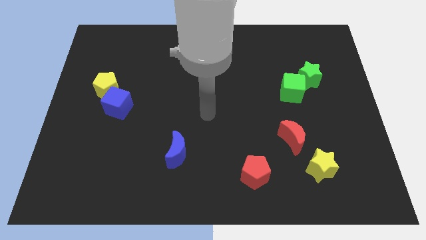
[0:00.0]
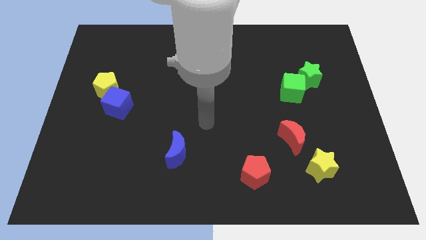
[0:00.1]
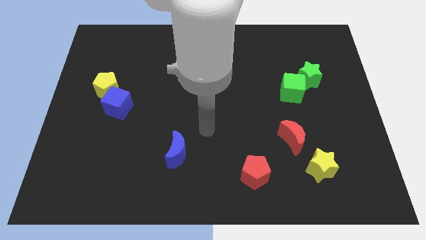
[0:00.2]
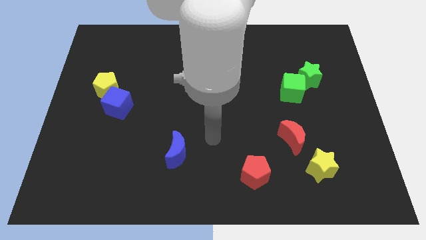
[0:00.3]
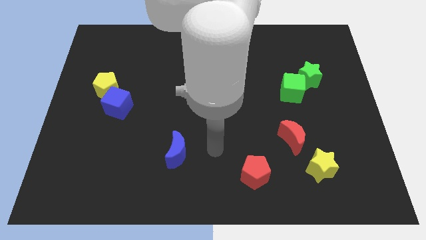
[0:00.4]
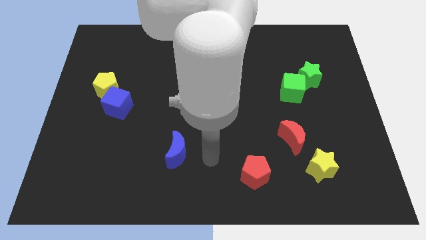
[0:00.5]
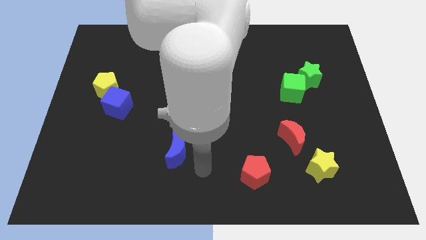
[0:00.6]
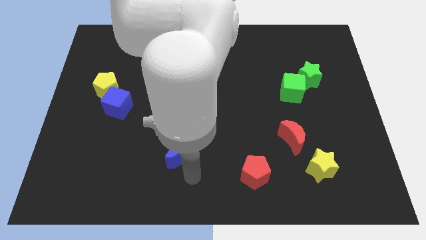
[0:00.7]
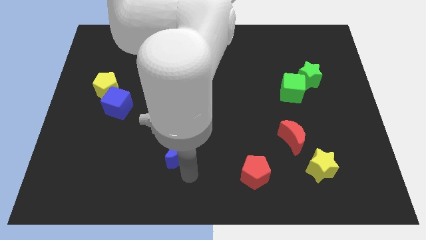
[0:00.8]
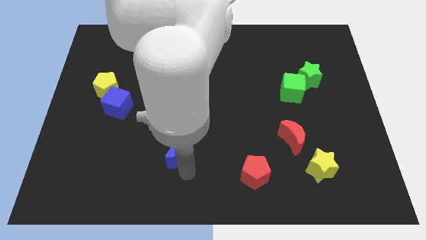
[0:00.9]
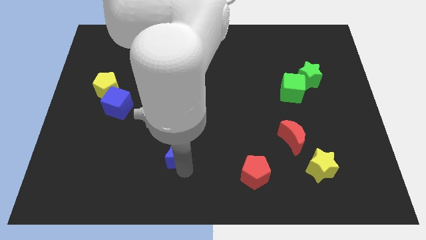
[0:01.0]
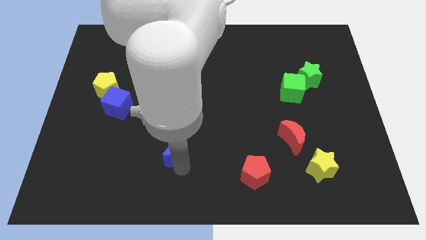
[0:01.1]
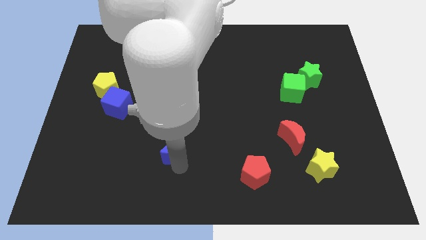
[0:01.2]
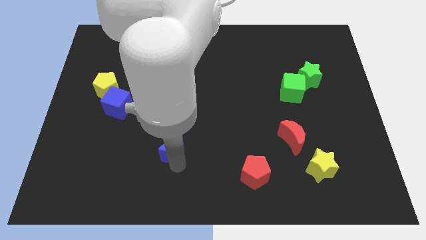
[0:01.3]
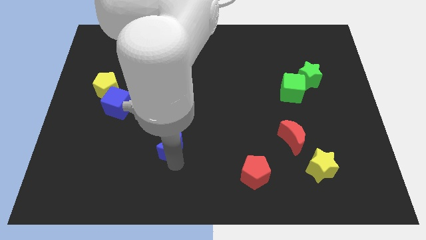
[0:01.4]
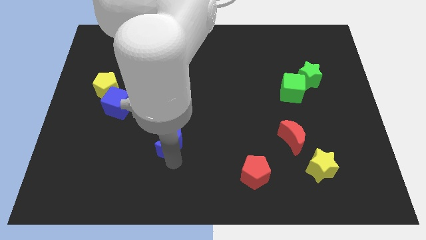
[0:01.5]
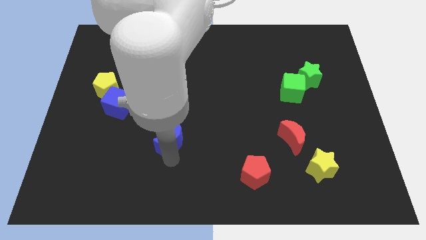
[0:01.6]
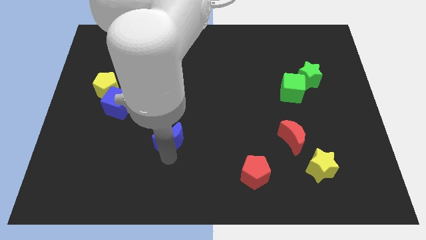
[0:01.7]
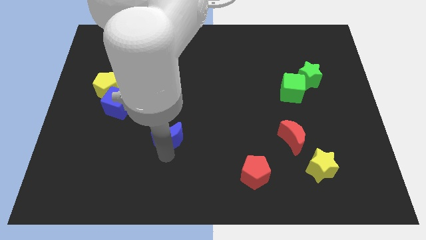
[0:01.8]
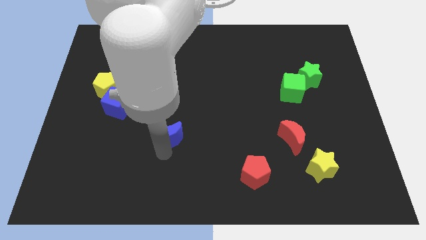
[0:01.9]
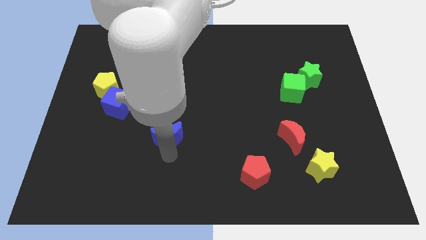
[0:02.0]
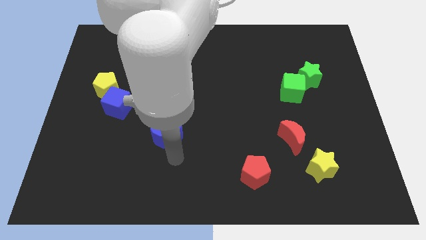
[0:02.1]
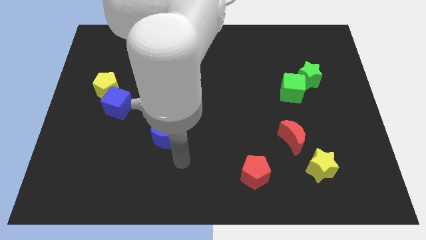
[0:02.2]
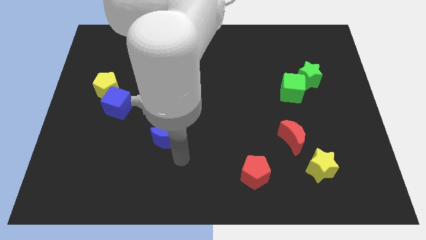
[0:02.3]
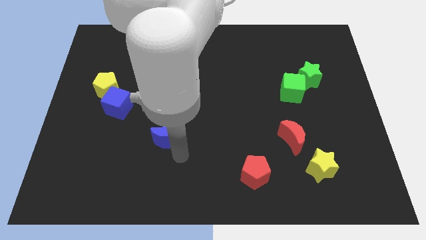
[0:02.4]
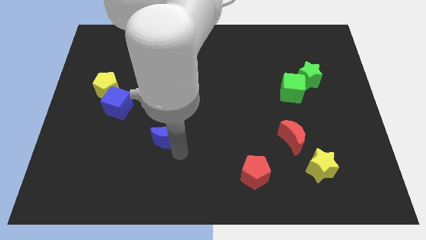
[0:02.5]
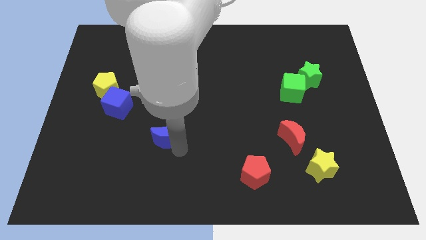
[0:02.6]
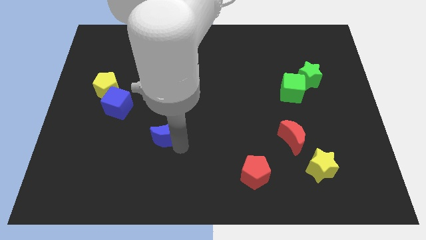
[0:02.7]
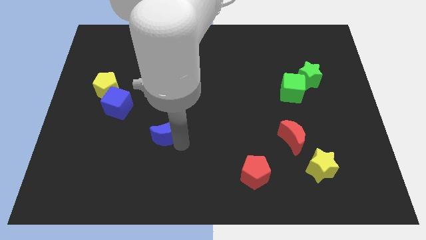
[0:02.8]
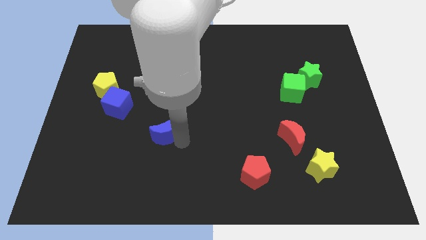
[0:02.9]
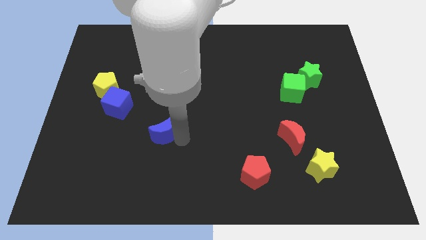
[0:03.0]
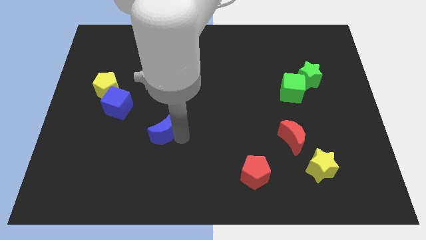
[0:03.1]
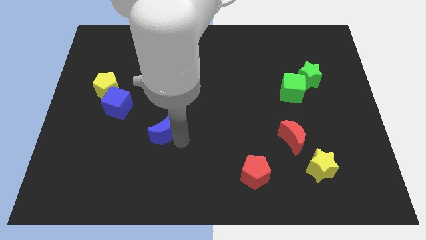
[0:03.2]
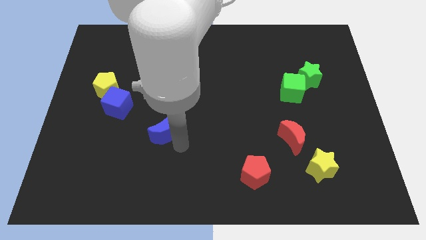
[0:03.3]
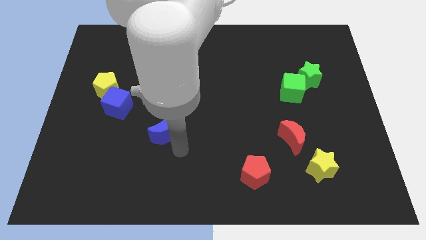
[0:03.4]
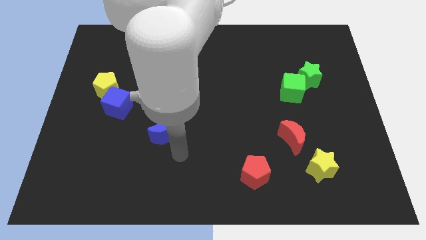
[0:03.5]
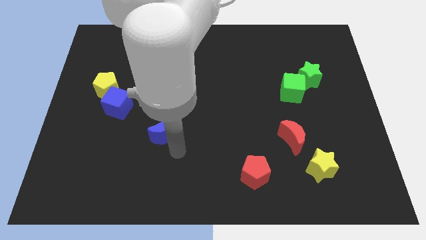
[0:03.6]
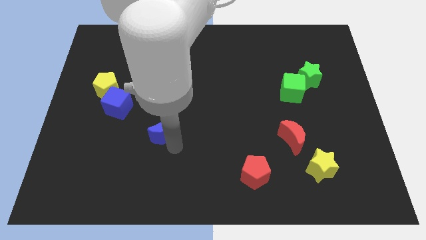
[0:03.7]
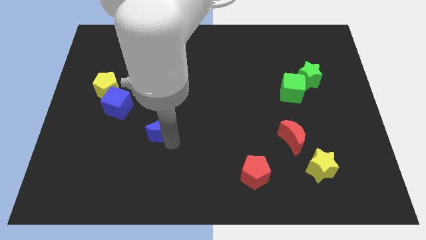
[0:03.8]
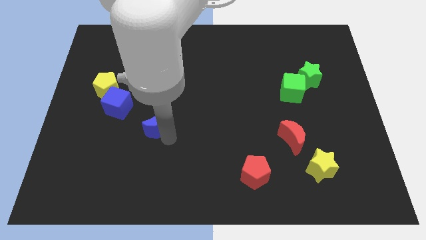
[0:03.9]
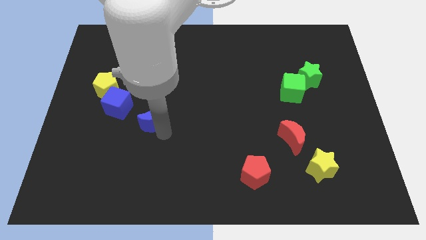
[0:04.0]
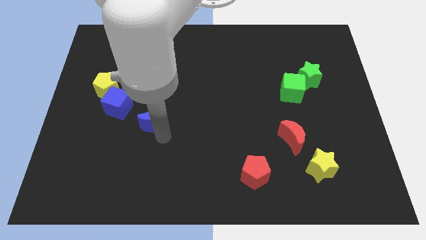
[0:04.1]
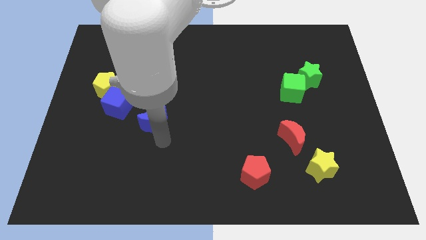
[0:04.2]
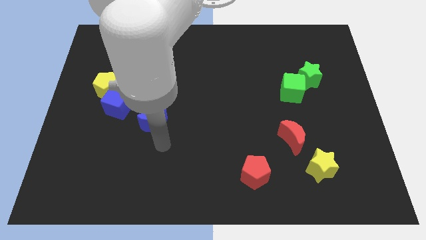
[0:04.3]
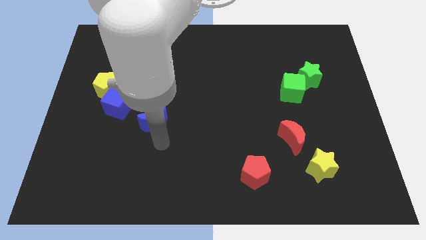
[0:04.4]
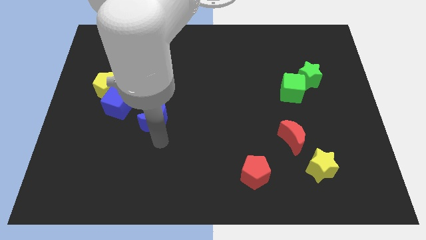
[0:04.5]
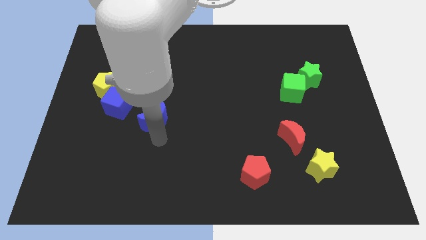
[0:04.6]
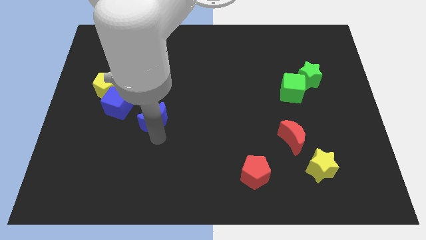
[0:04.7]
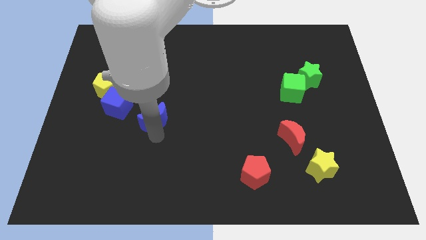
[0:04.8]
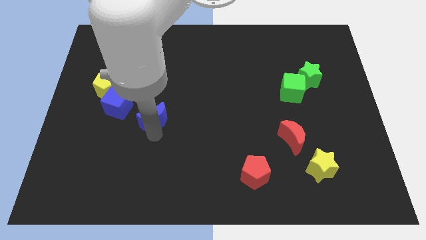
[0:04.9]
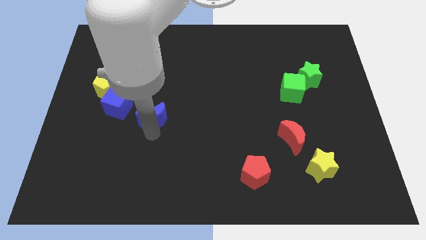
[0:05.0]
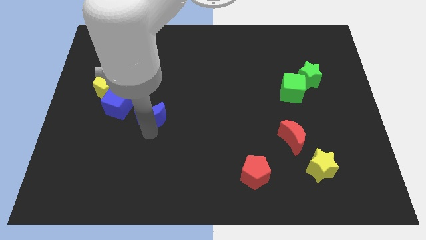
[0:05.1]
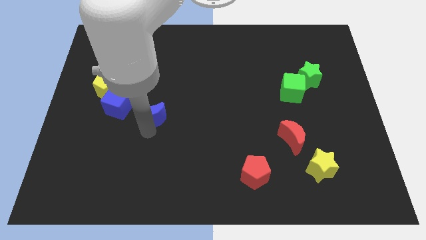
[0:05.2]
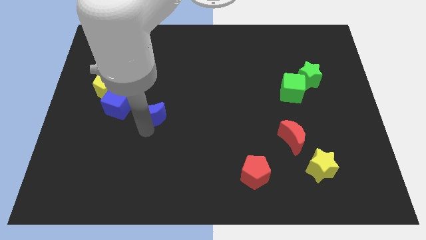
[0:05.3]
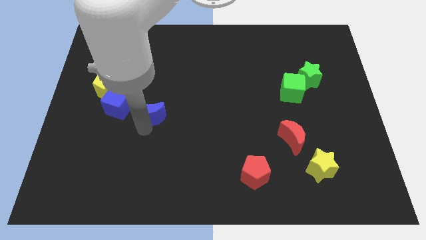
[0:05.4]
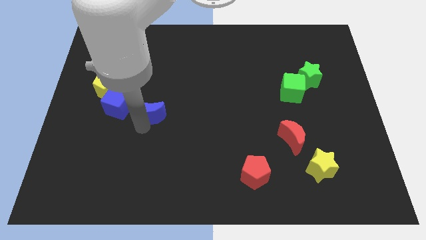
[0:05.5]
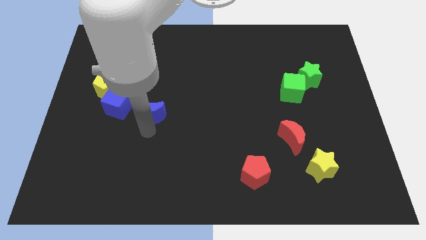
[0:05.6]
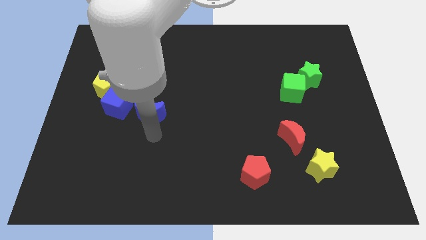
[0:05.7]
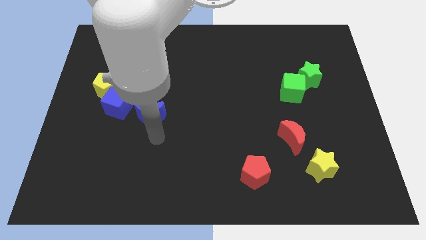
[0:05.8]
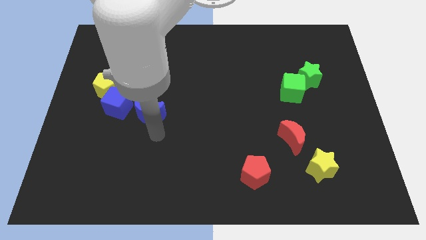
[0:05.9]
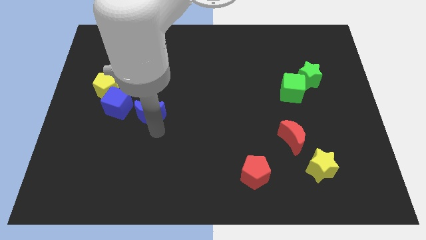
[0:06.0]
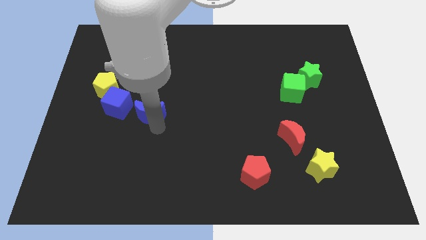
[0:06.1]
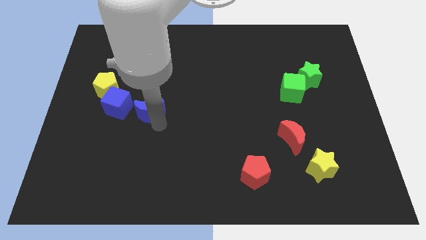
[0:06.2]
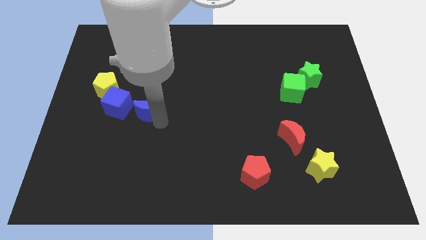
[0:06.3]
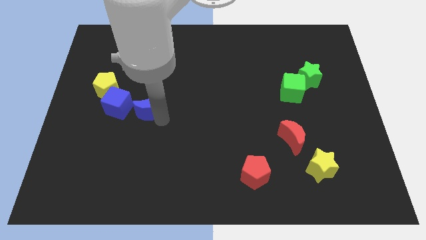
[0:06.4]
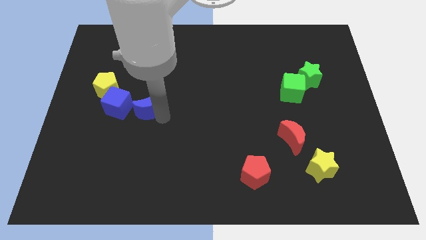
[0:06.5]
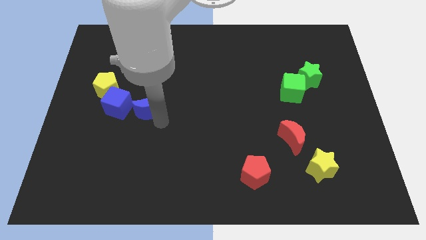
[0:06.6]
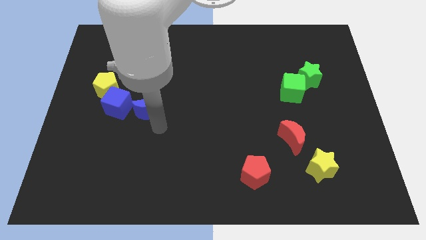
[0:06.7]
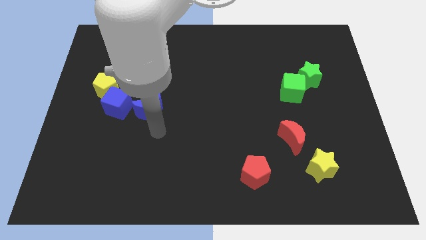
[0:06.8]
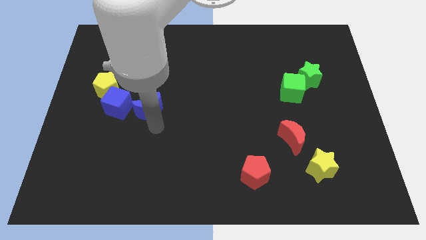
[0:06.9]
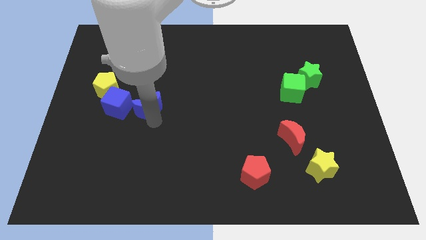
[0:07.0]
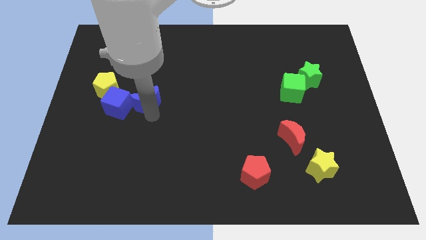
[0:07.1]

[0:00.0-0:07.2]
move the blue moon to the top right of the blue cube
